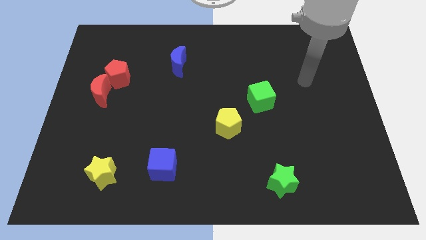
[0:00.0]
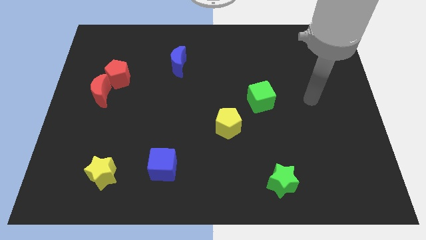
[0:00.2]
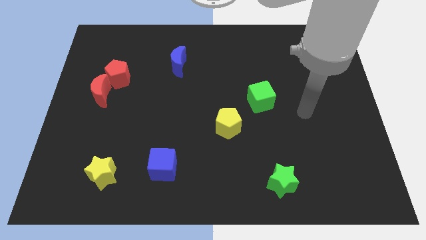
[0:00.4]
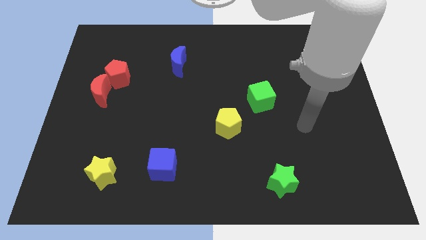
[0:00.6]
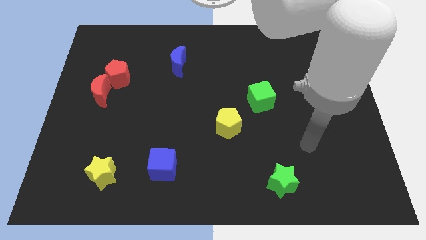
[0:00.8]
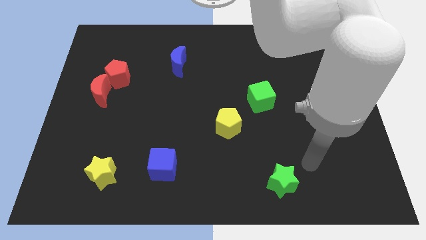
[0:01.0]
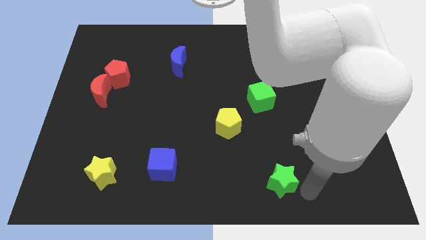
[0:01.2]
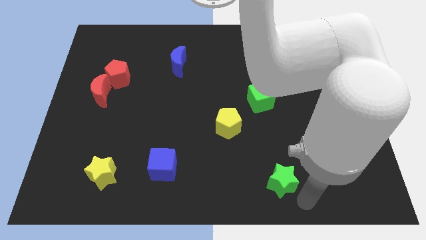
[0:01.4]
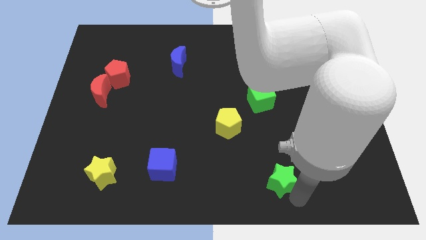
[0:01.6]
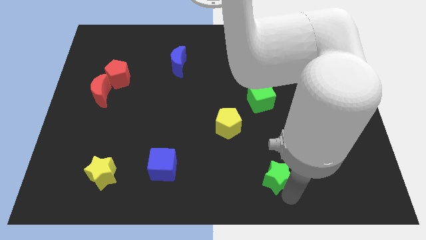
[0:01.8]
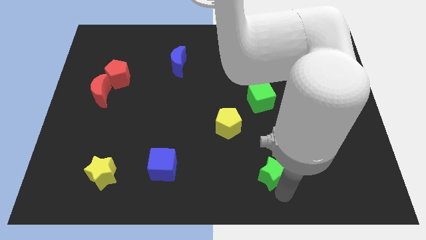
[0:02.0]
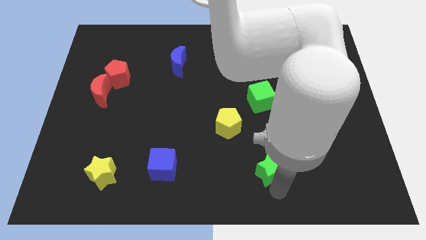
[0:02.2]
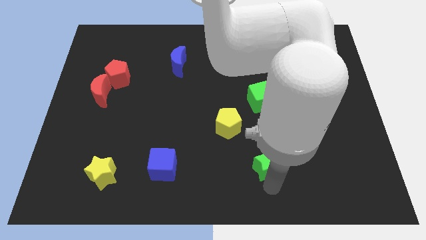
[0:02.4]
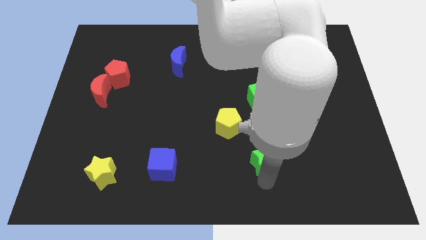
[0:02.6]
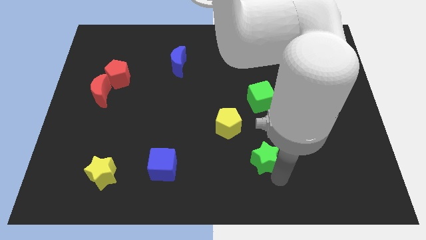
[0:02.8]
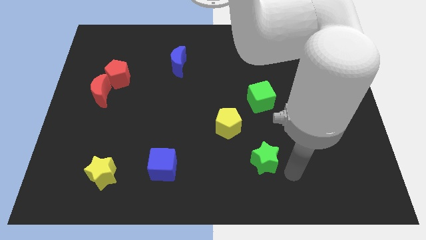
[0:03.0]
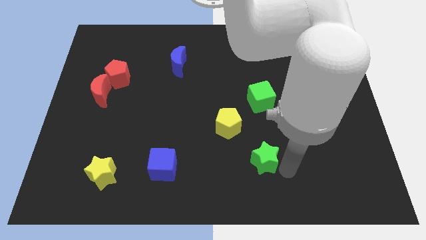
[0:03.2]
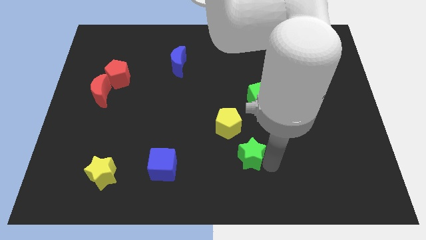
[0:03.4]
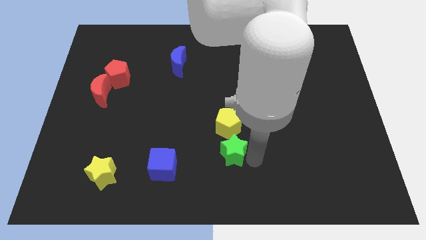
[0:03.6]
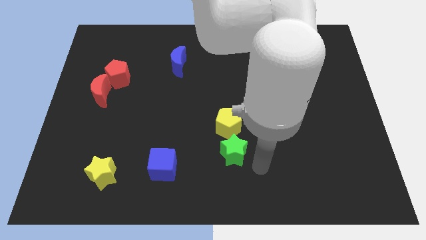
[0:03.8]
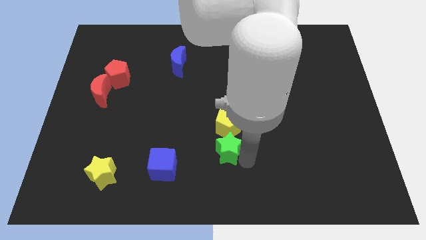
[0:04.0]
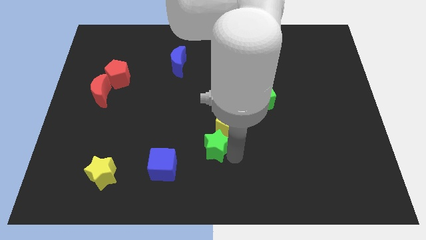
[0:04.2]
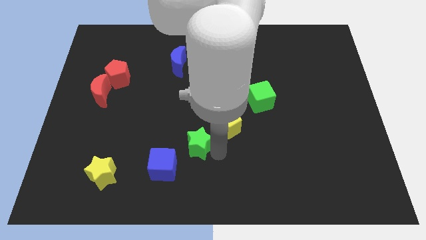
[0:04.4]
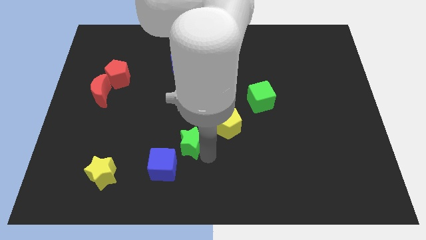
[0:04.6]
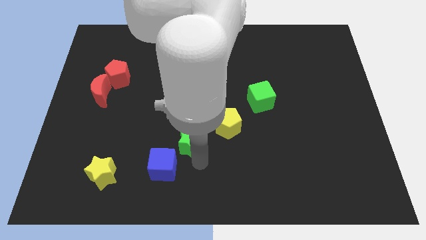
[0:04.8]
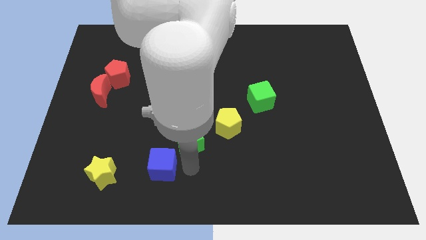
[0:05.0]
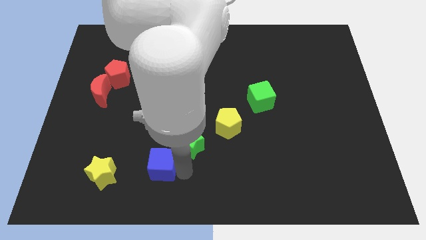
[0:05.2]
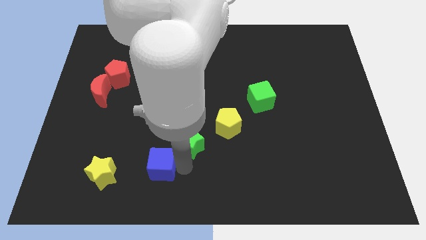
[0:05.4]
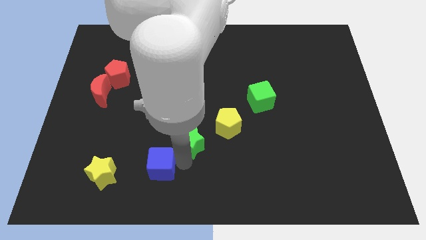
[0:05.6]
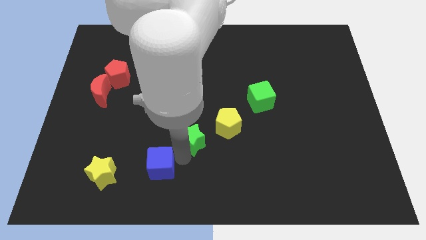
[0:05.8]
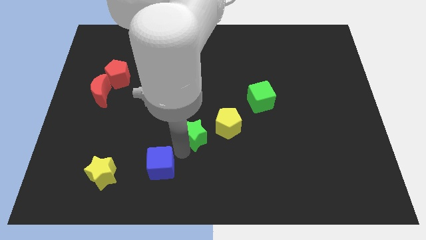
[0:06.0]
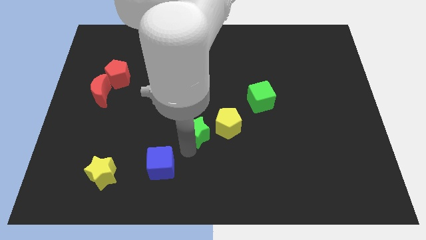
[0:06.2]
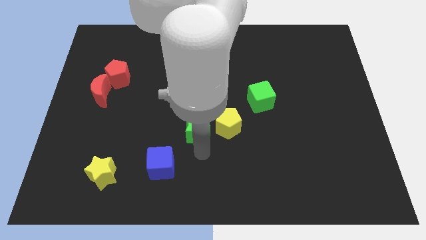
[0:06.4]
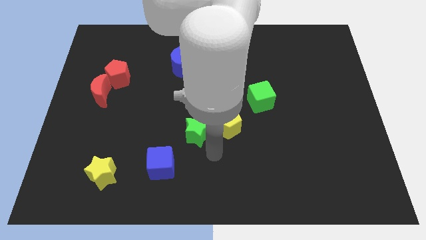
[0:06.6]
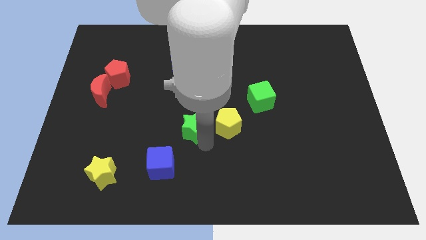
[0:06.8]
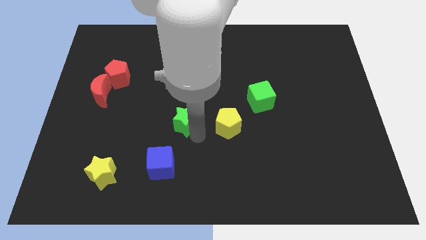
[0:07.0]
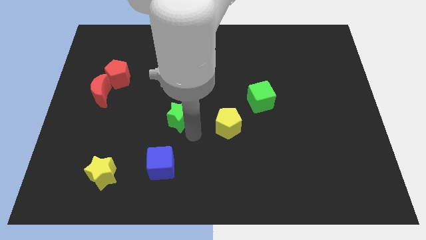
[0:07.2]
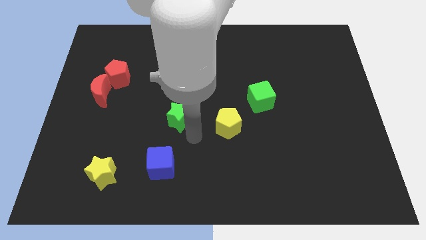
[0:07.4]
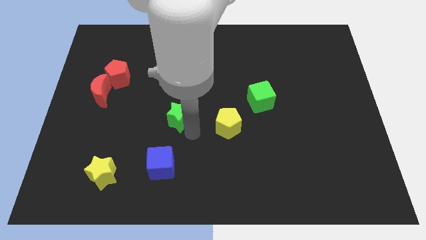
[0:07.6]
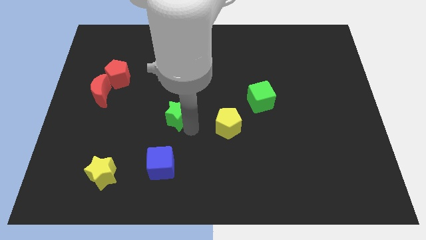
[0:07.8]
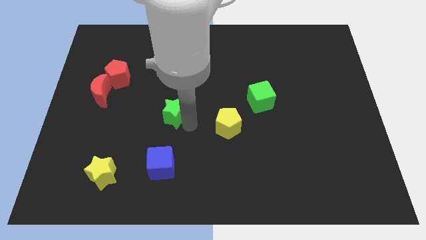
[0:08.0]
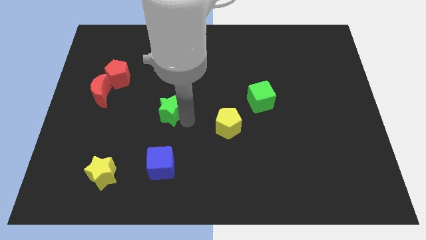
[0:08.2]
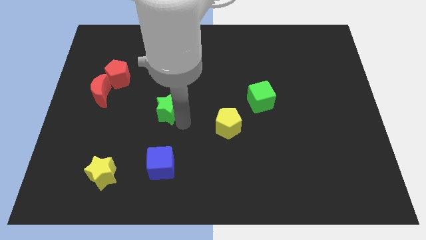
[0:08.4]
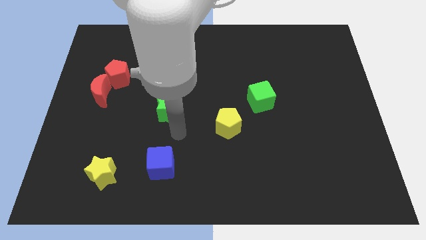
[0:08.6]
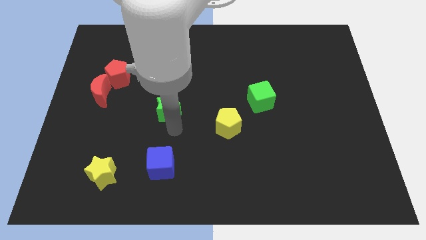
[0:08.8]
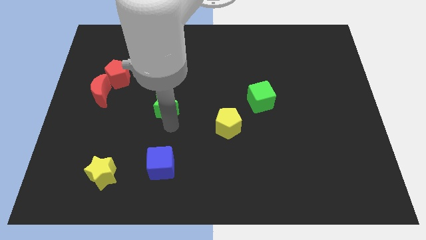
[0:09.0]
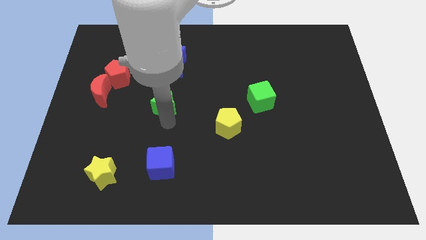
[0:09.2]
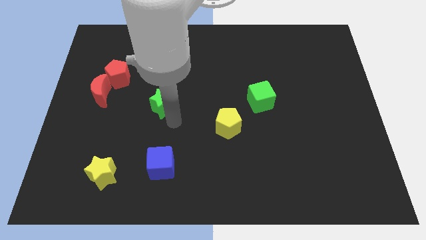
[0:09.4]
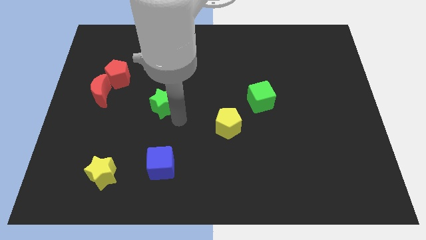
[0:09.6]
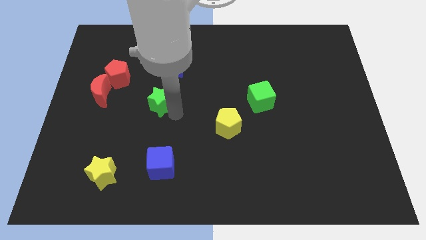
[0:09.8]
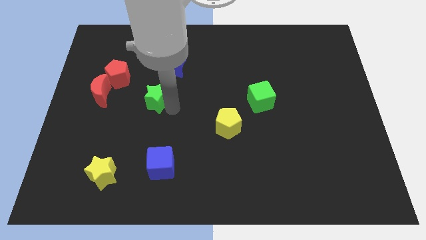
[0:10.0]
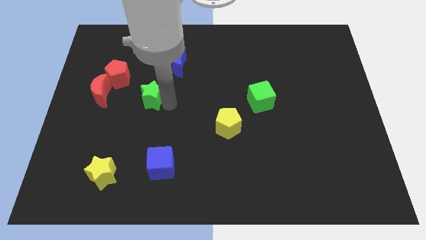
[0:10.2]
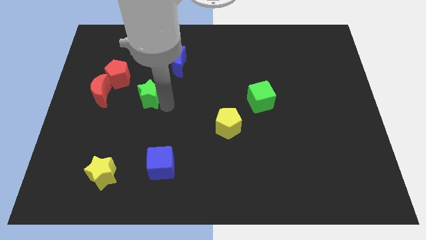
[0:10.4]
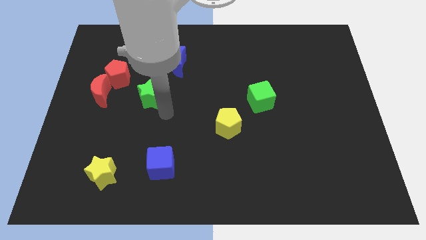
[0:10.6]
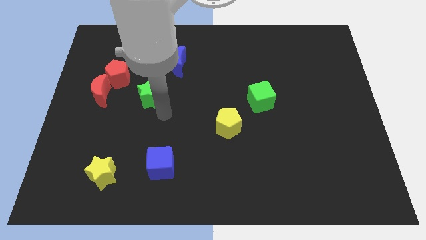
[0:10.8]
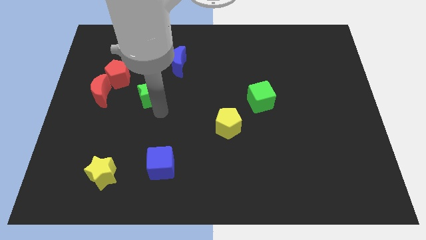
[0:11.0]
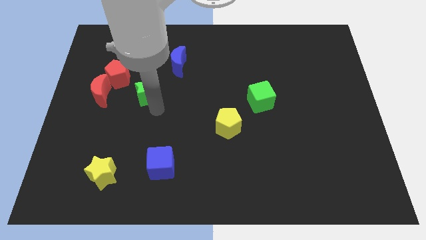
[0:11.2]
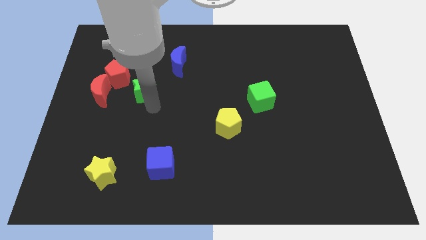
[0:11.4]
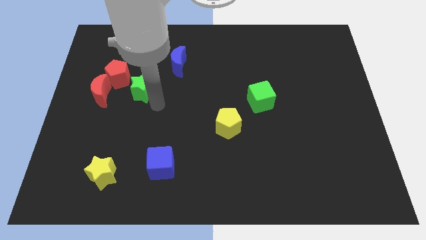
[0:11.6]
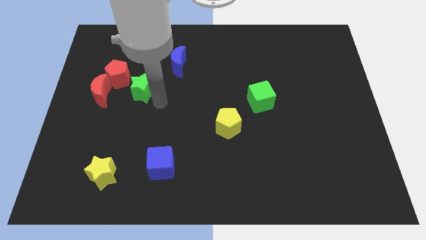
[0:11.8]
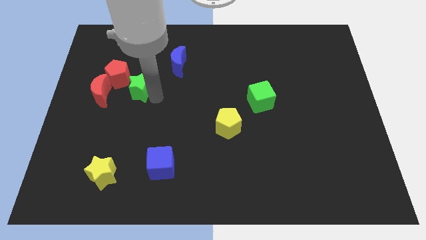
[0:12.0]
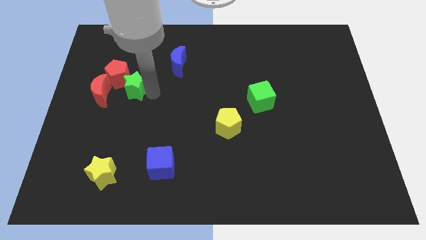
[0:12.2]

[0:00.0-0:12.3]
put the green star close to the red pentagon
